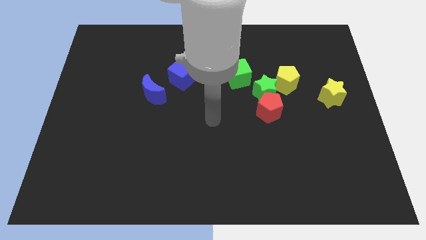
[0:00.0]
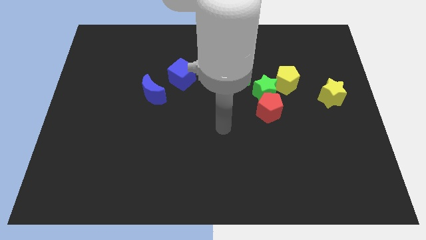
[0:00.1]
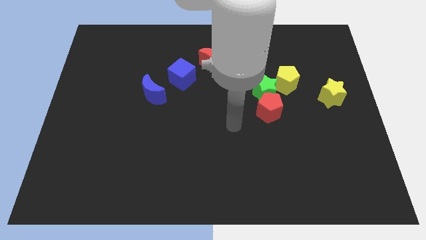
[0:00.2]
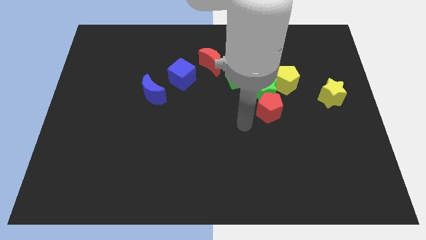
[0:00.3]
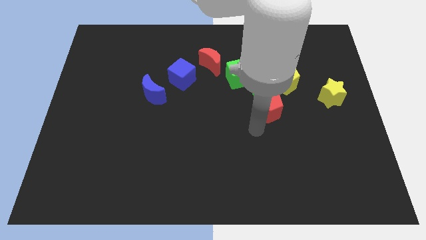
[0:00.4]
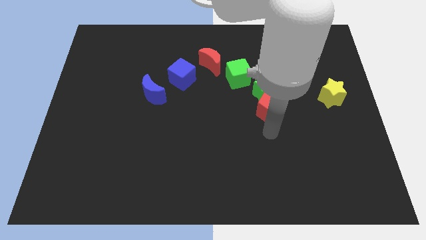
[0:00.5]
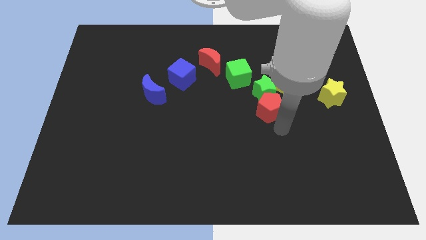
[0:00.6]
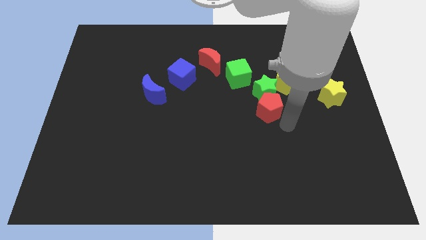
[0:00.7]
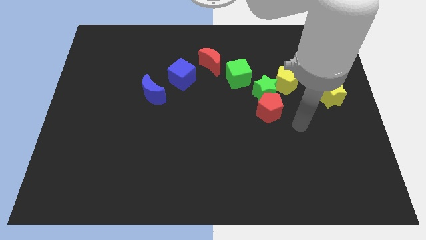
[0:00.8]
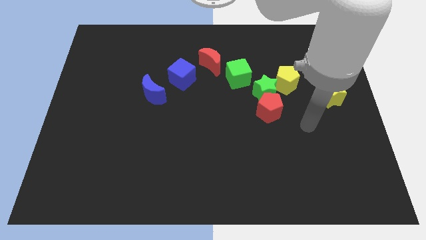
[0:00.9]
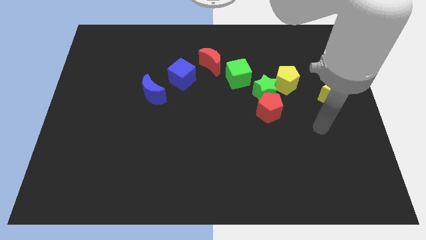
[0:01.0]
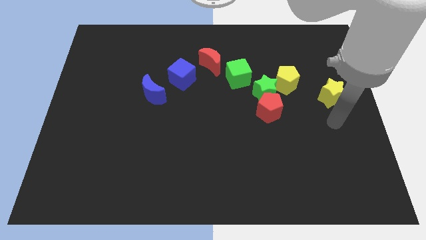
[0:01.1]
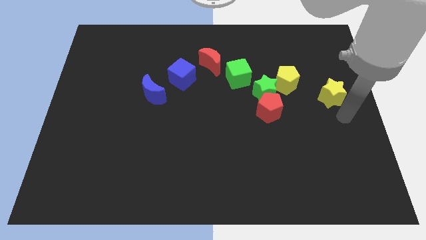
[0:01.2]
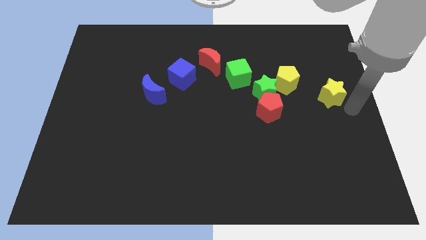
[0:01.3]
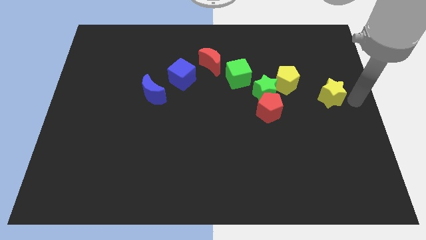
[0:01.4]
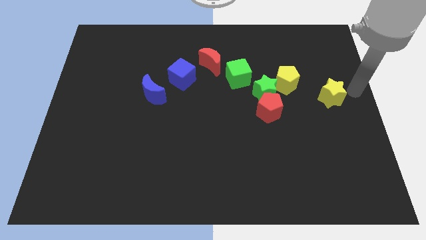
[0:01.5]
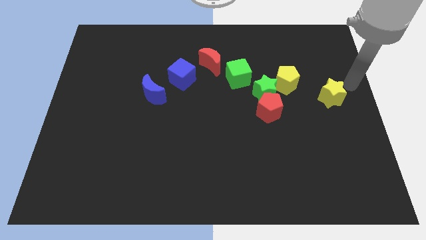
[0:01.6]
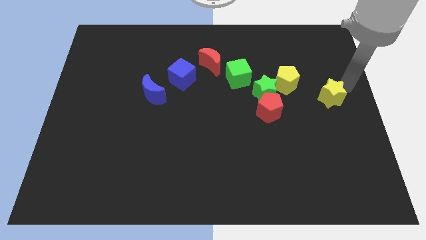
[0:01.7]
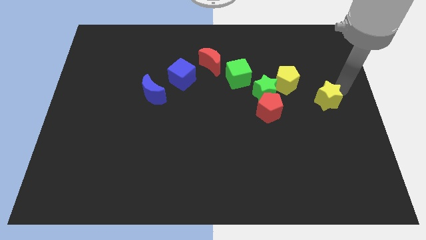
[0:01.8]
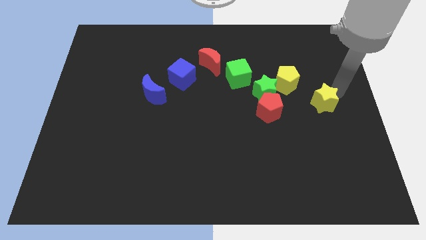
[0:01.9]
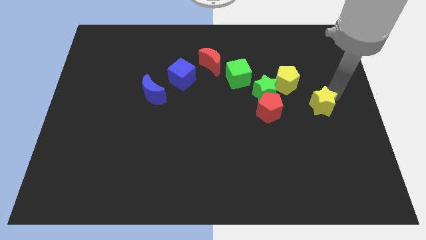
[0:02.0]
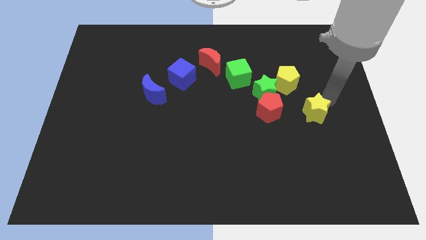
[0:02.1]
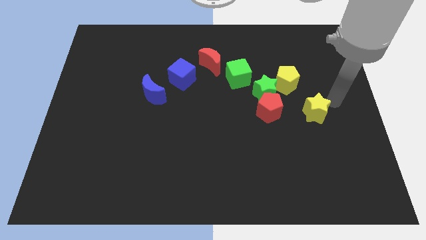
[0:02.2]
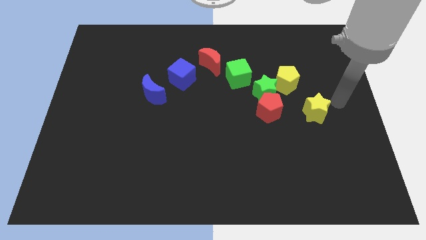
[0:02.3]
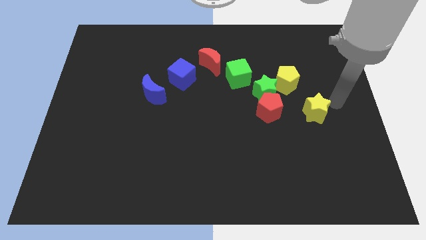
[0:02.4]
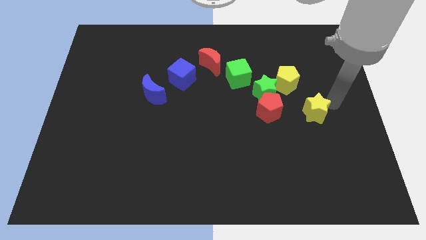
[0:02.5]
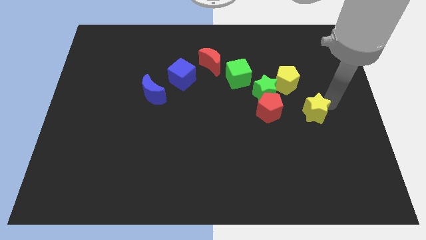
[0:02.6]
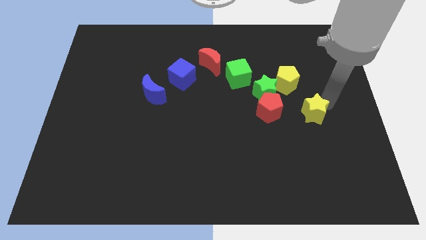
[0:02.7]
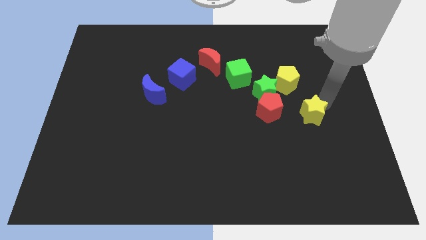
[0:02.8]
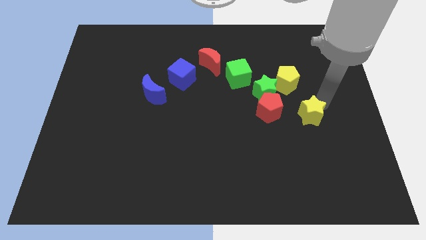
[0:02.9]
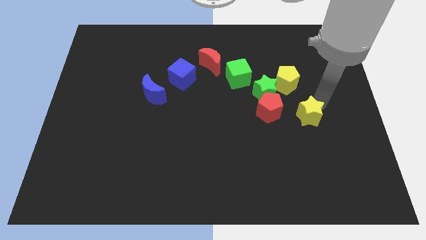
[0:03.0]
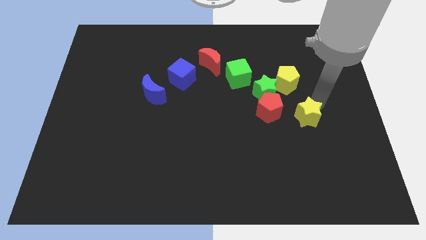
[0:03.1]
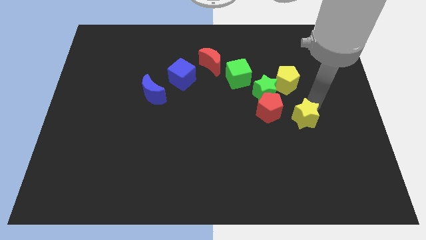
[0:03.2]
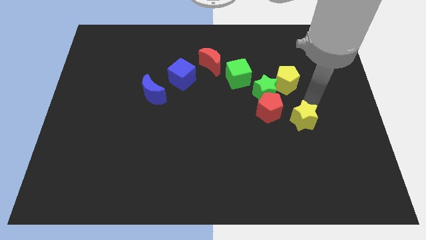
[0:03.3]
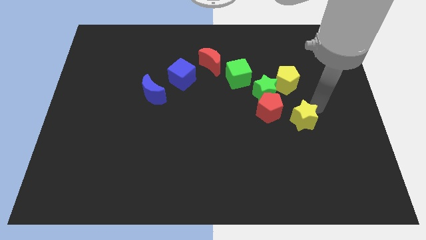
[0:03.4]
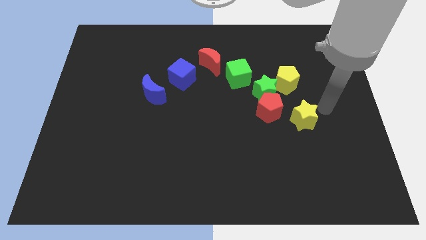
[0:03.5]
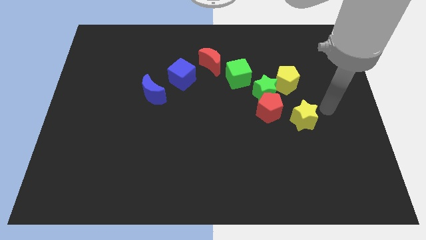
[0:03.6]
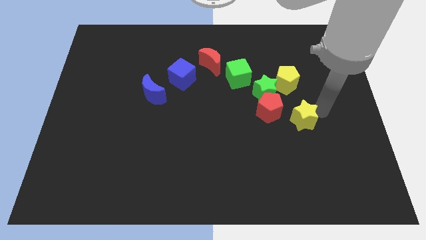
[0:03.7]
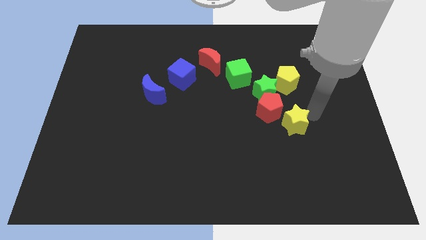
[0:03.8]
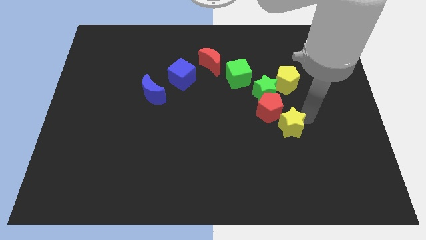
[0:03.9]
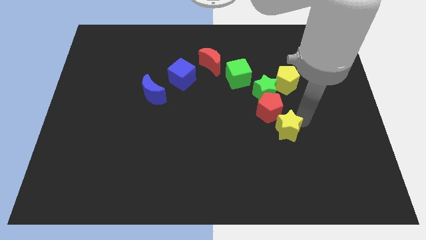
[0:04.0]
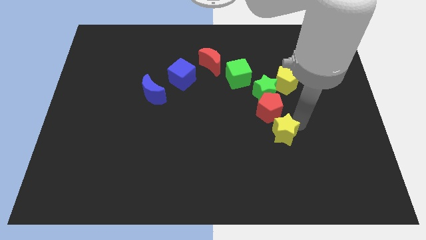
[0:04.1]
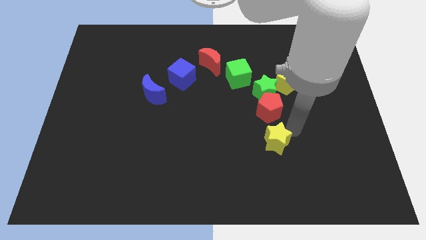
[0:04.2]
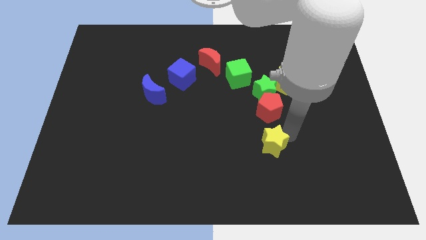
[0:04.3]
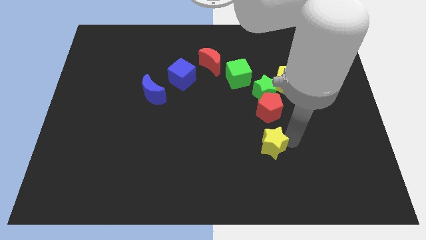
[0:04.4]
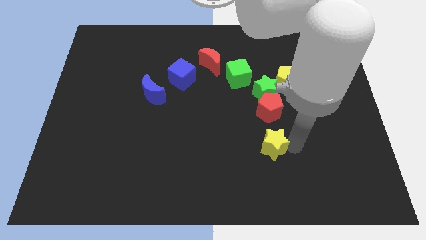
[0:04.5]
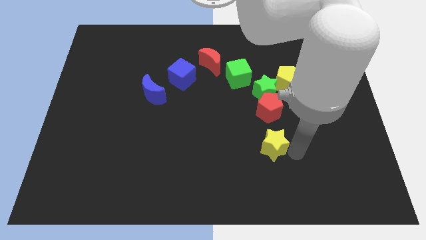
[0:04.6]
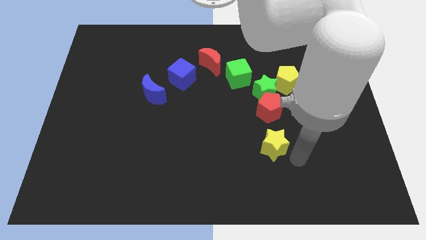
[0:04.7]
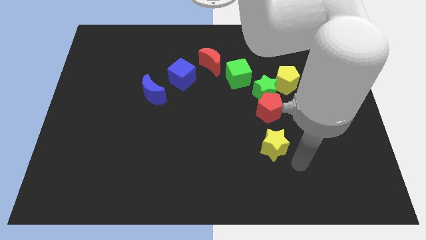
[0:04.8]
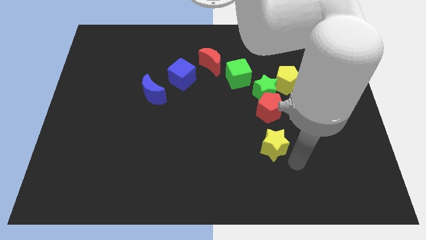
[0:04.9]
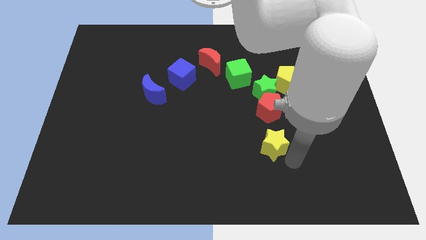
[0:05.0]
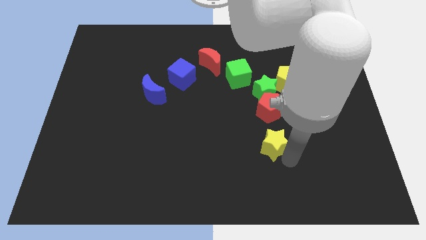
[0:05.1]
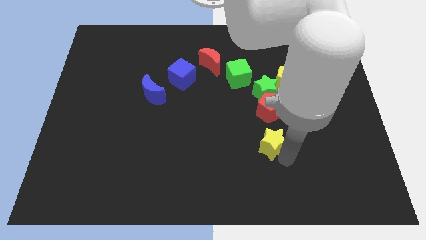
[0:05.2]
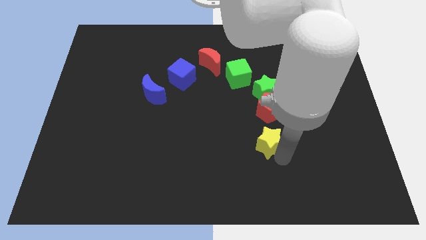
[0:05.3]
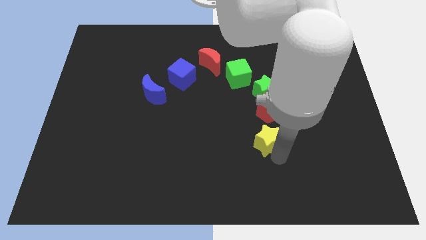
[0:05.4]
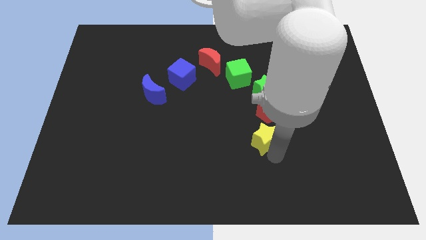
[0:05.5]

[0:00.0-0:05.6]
put the yellow star diagonally down and to the left of the red pentagon

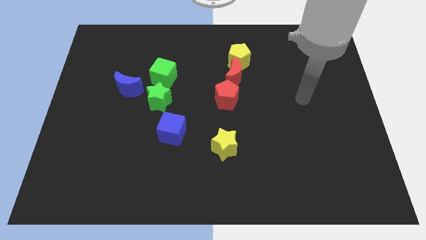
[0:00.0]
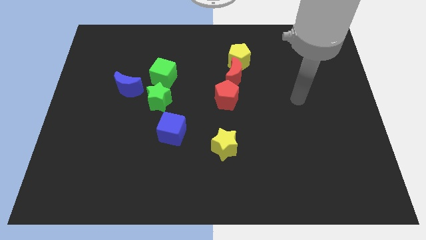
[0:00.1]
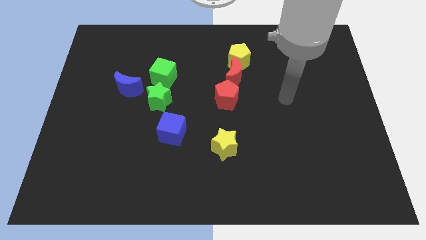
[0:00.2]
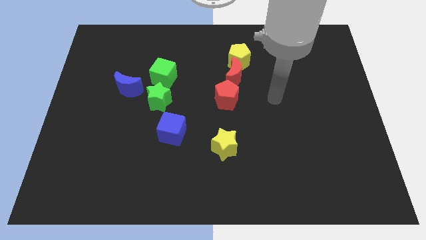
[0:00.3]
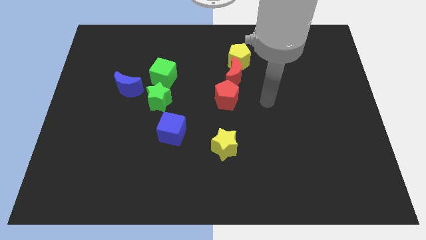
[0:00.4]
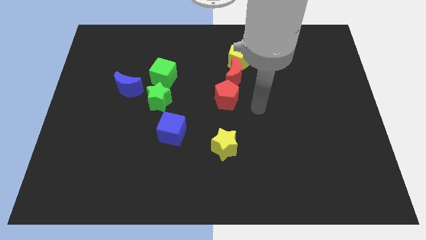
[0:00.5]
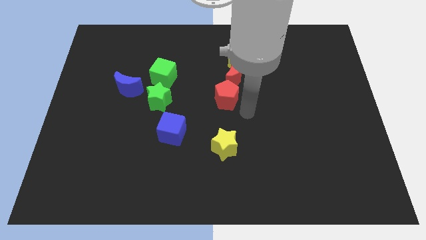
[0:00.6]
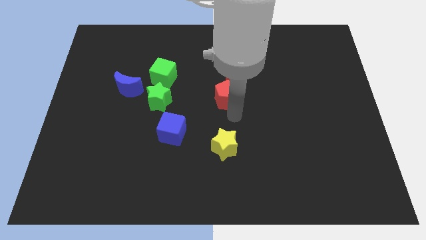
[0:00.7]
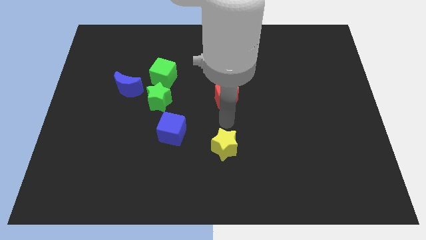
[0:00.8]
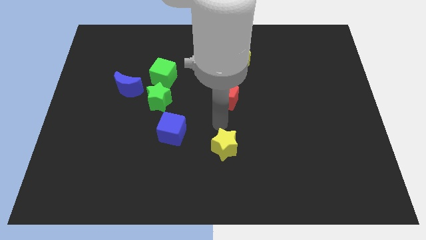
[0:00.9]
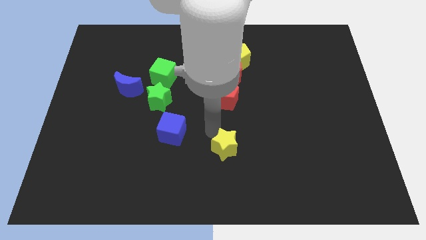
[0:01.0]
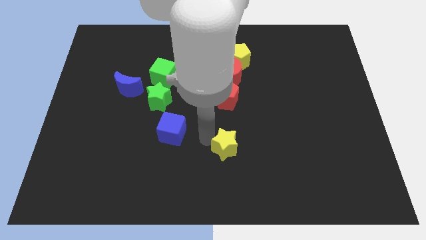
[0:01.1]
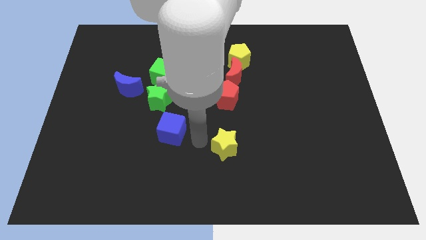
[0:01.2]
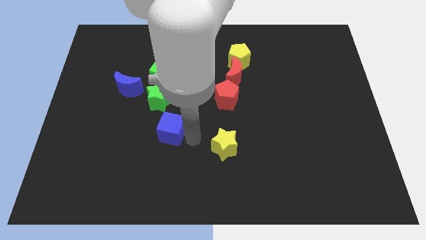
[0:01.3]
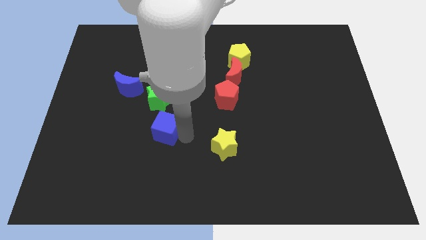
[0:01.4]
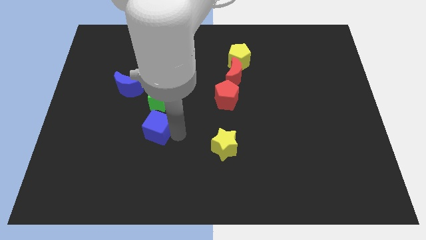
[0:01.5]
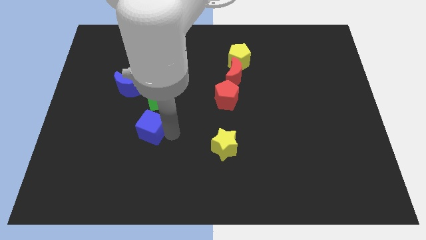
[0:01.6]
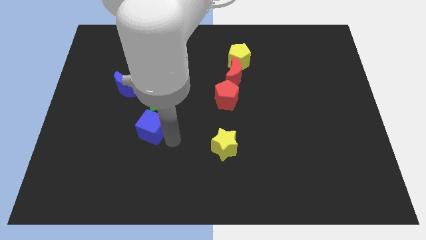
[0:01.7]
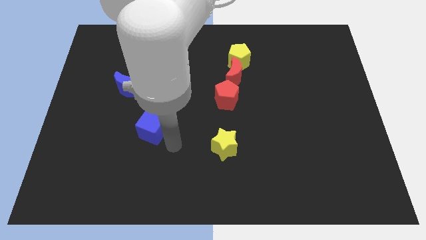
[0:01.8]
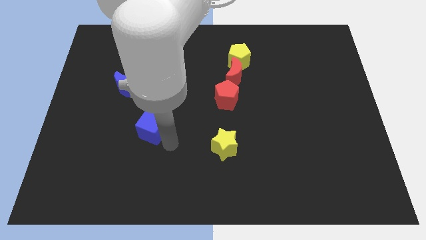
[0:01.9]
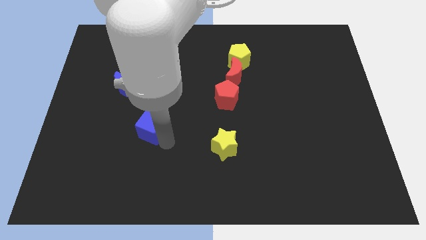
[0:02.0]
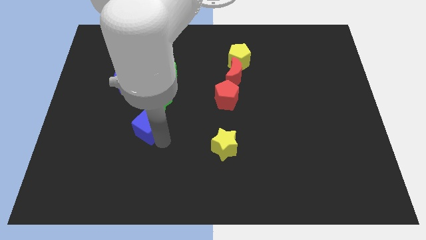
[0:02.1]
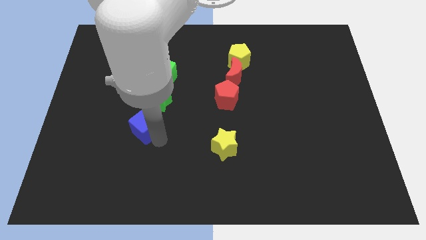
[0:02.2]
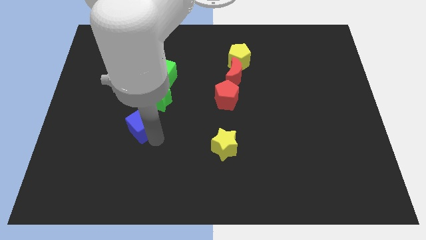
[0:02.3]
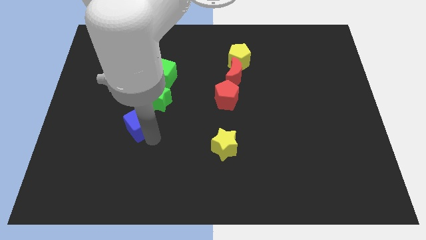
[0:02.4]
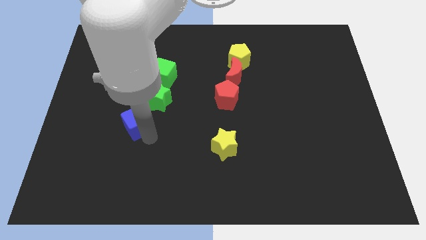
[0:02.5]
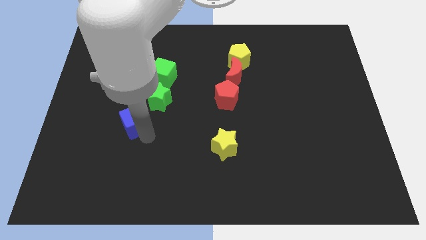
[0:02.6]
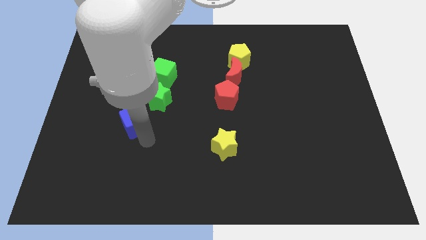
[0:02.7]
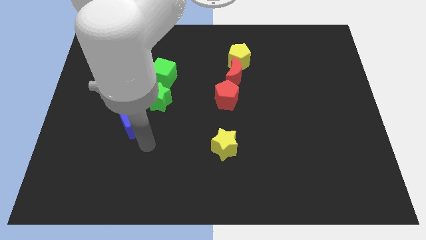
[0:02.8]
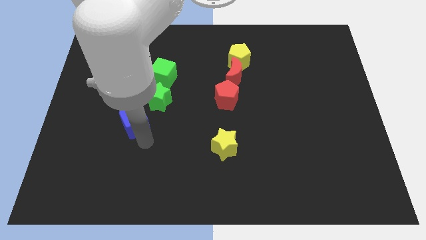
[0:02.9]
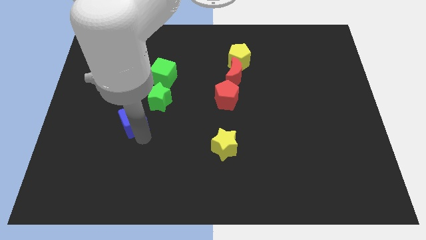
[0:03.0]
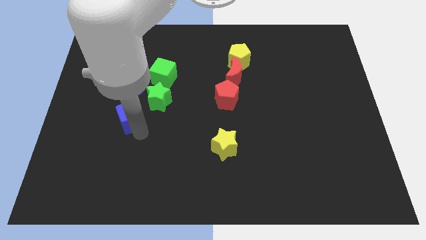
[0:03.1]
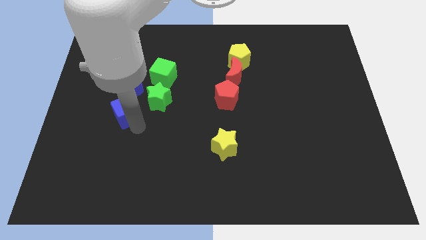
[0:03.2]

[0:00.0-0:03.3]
slide the blue cube left of the green star
